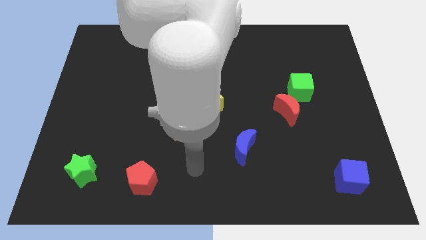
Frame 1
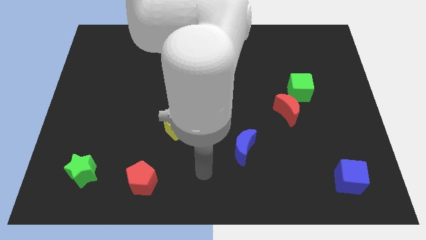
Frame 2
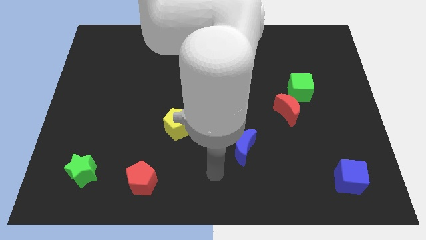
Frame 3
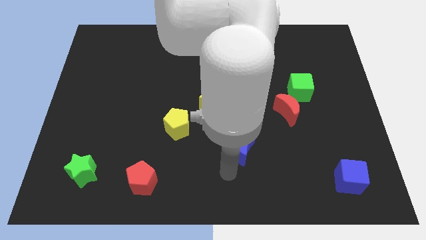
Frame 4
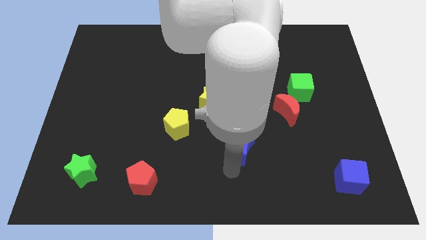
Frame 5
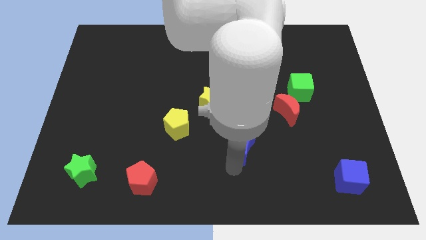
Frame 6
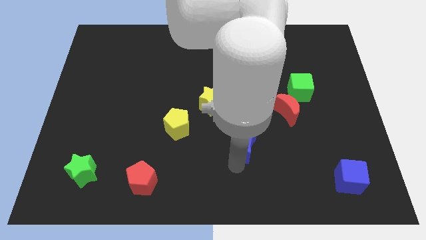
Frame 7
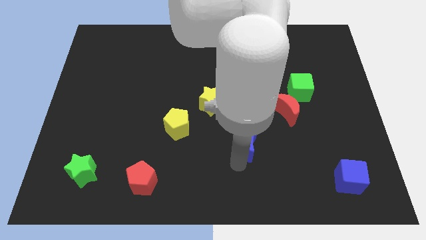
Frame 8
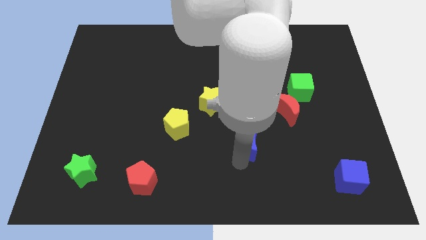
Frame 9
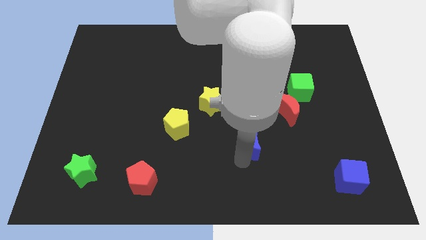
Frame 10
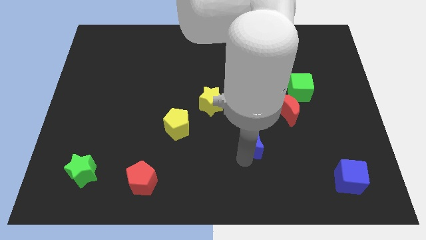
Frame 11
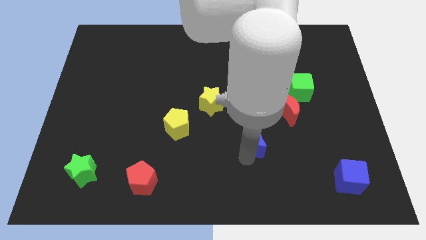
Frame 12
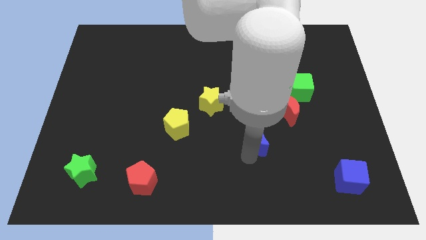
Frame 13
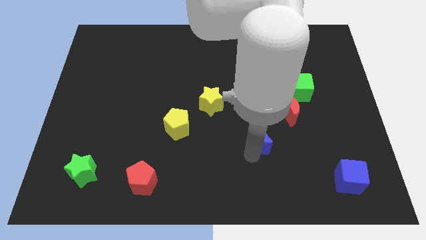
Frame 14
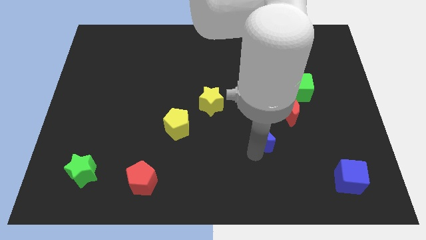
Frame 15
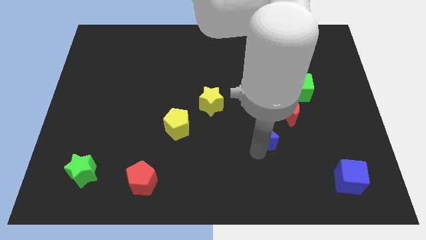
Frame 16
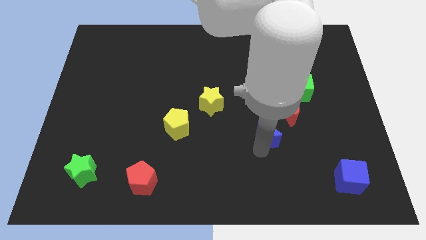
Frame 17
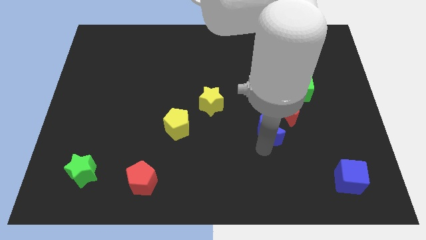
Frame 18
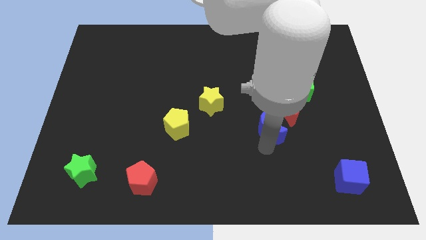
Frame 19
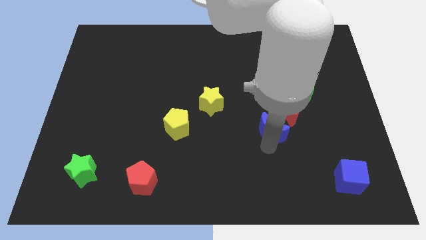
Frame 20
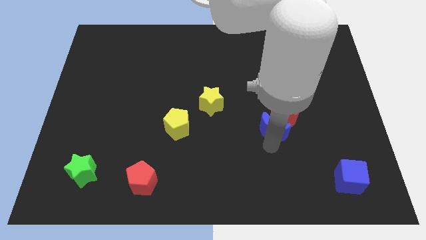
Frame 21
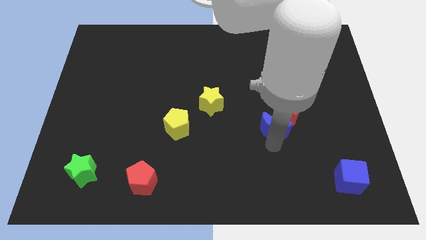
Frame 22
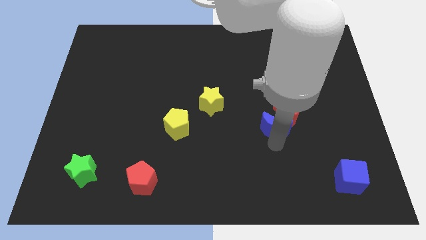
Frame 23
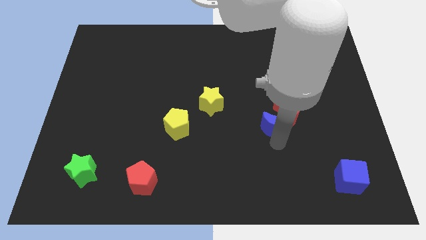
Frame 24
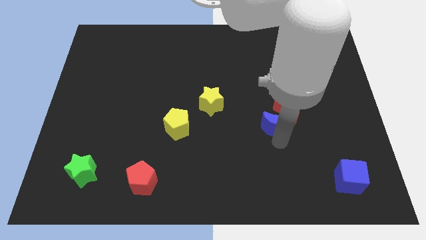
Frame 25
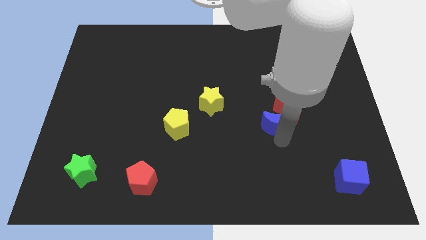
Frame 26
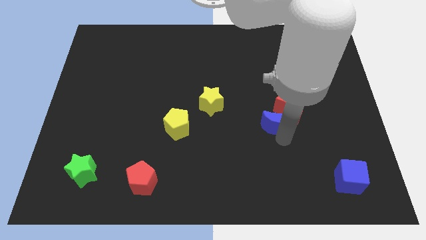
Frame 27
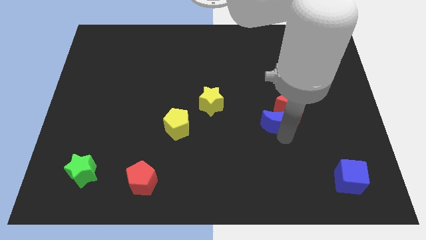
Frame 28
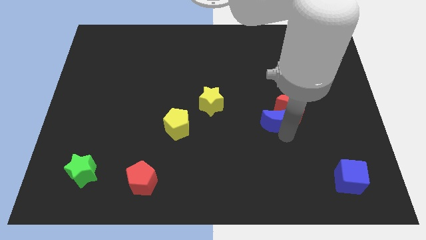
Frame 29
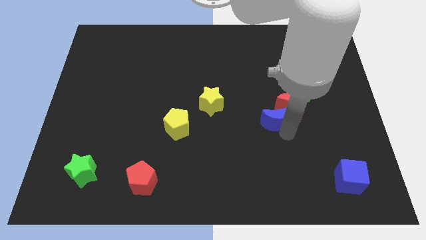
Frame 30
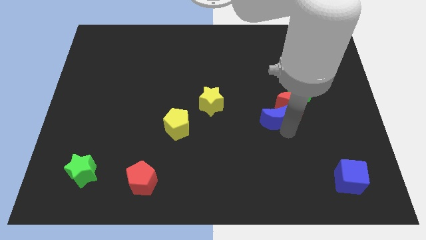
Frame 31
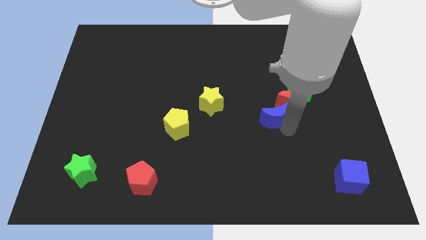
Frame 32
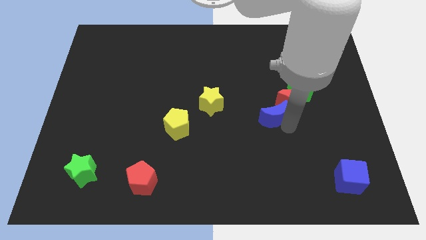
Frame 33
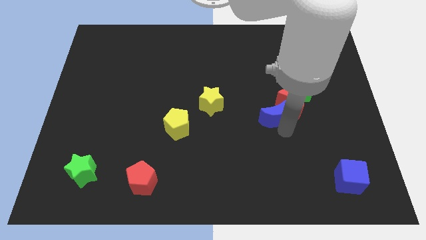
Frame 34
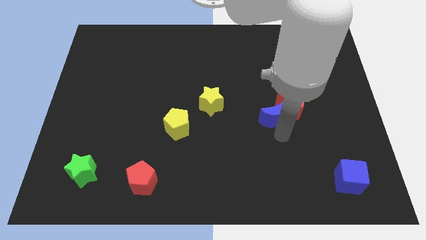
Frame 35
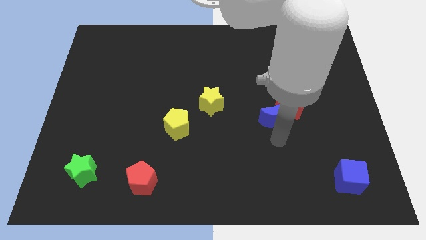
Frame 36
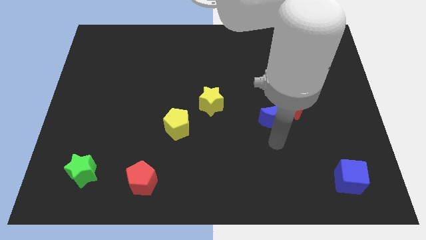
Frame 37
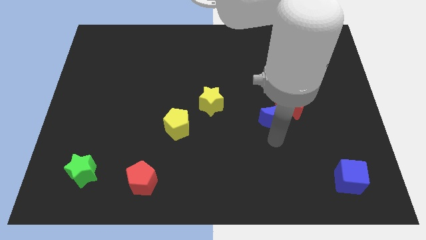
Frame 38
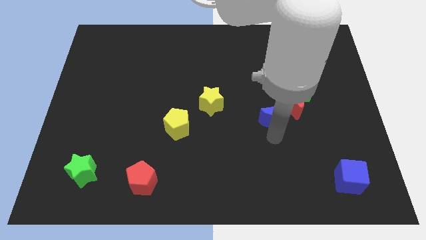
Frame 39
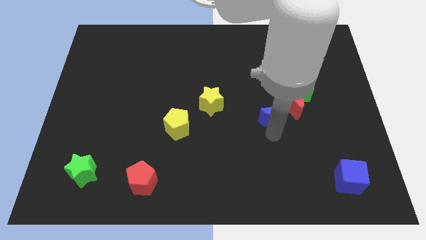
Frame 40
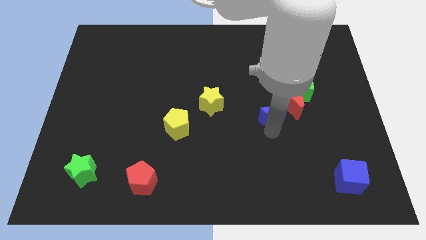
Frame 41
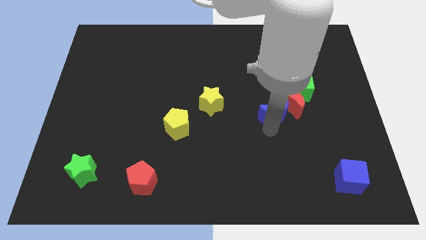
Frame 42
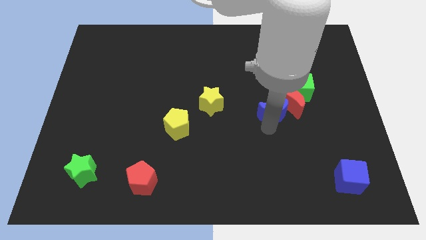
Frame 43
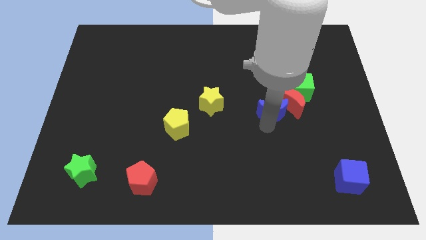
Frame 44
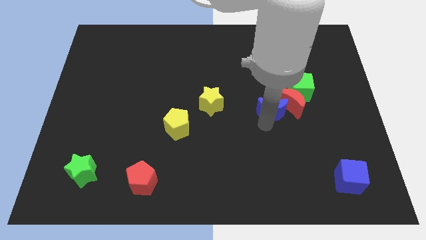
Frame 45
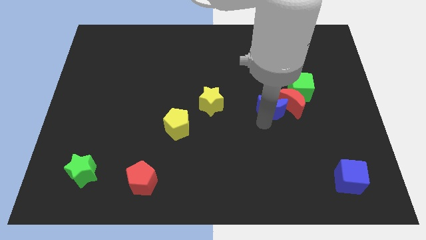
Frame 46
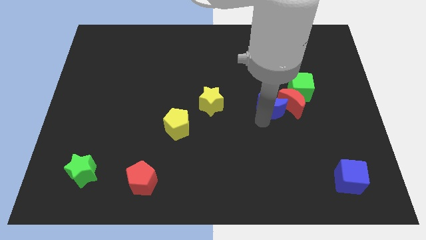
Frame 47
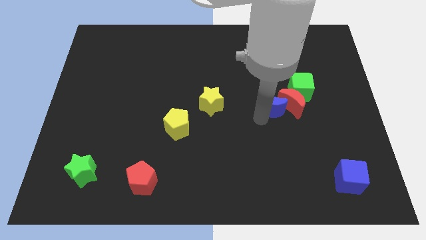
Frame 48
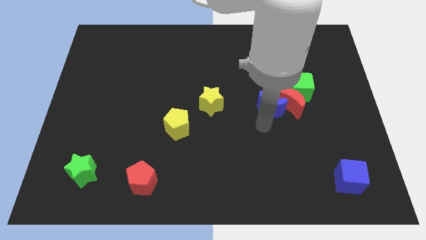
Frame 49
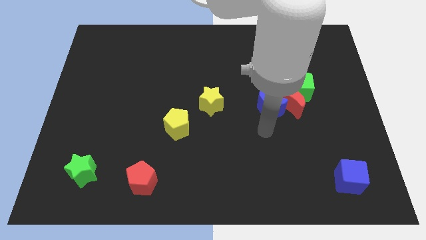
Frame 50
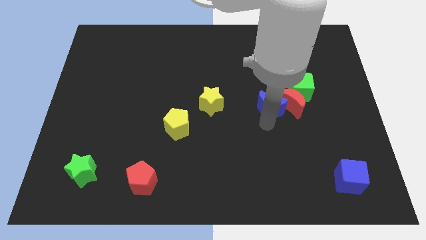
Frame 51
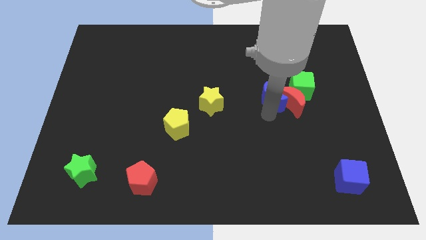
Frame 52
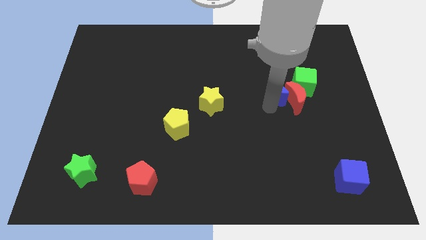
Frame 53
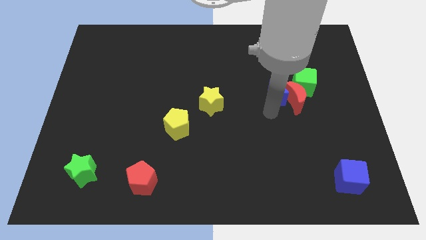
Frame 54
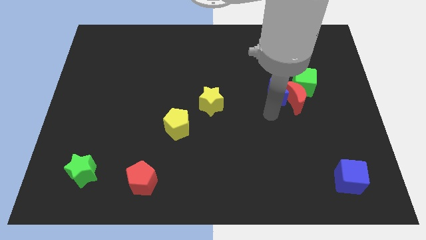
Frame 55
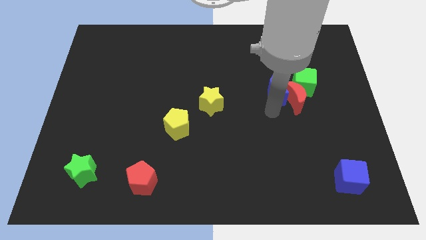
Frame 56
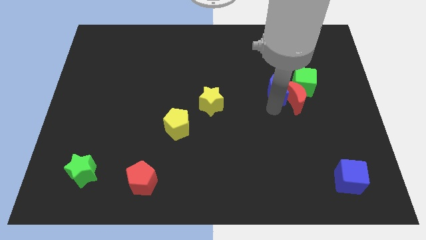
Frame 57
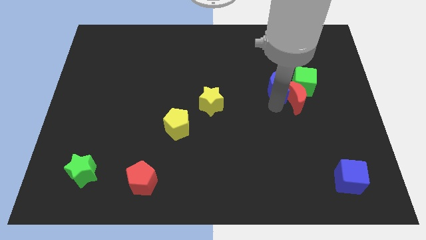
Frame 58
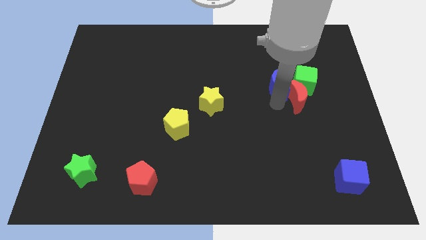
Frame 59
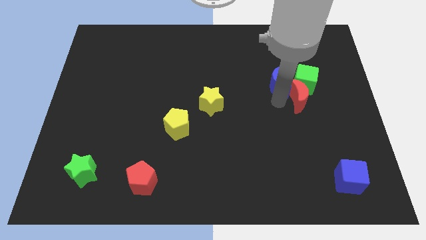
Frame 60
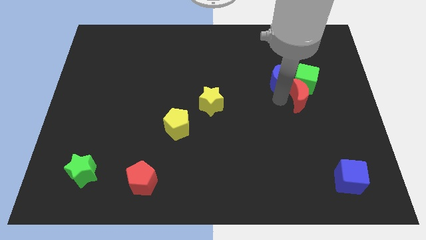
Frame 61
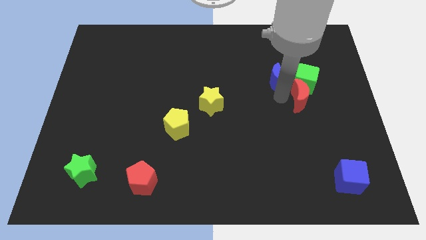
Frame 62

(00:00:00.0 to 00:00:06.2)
slide the blue moon to the top left of the green cube

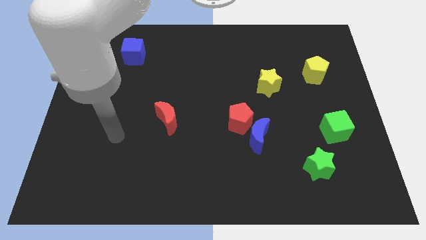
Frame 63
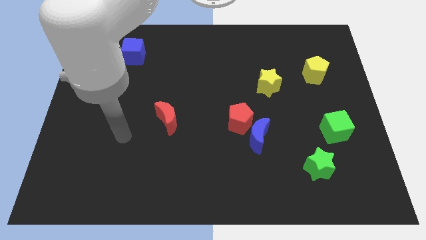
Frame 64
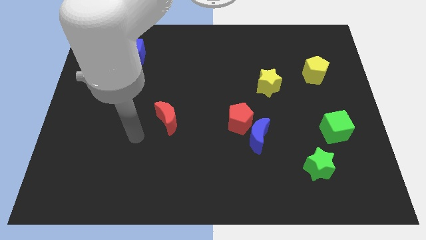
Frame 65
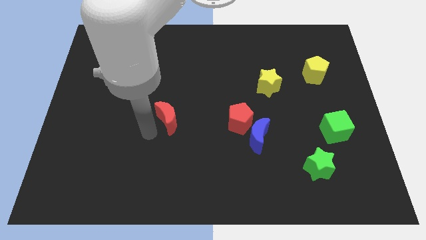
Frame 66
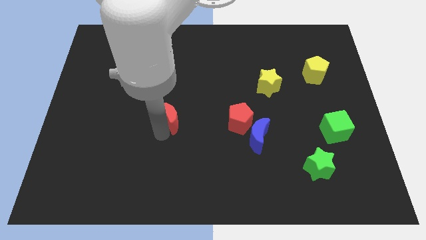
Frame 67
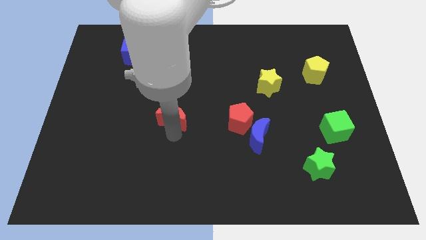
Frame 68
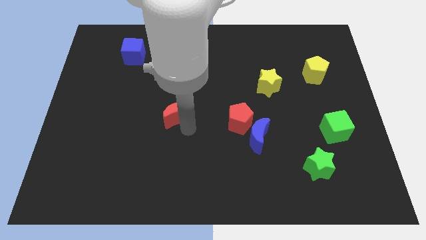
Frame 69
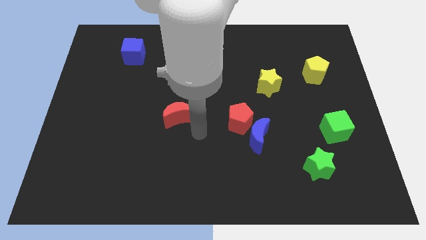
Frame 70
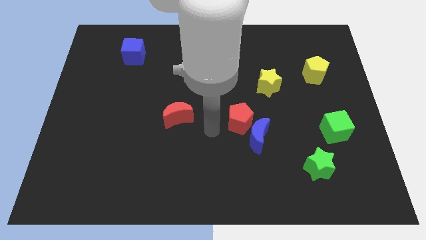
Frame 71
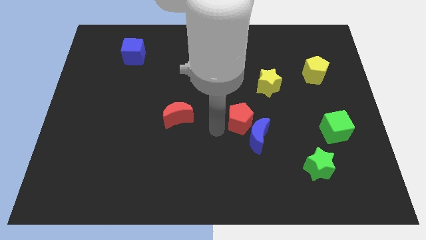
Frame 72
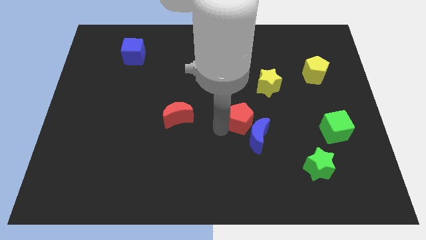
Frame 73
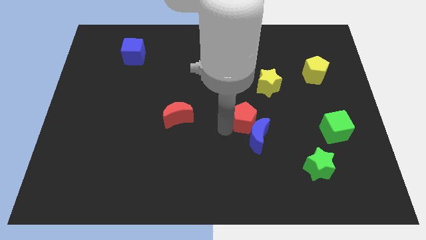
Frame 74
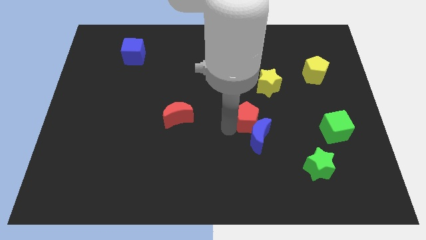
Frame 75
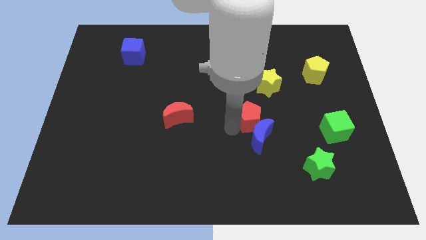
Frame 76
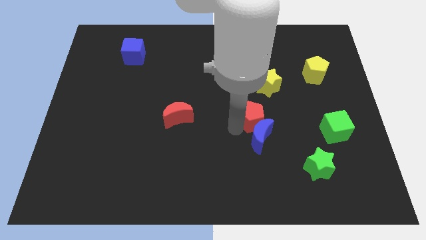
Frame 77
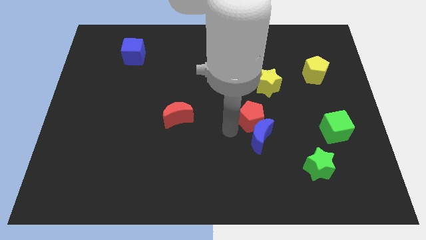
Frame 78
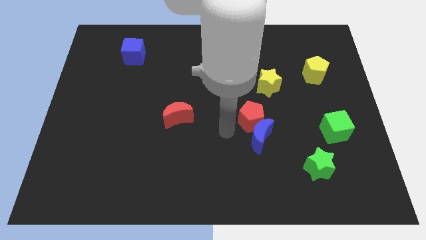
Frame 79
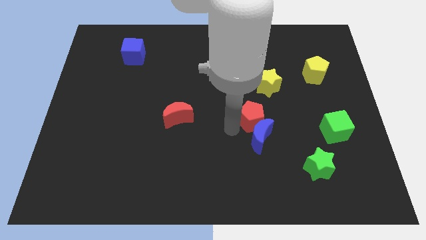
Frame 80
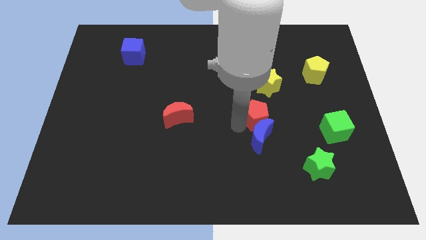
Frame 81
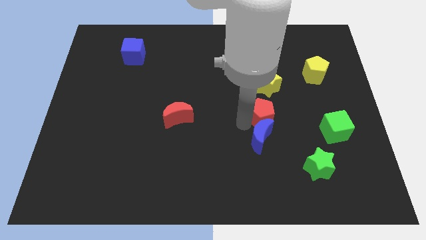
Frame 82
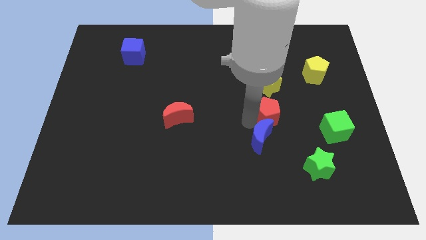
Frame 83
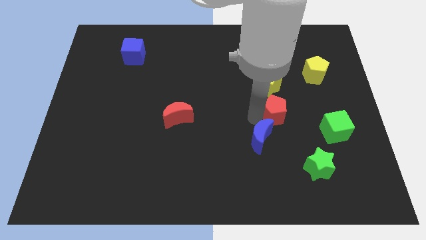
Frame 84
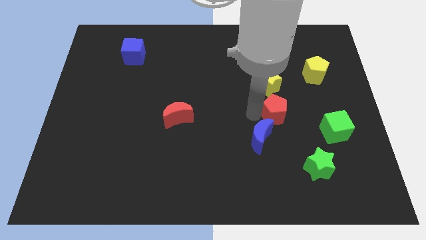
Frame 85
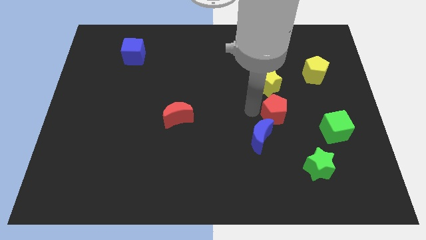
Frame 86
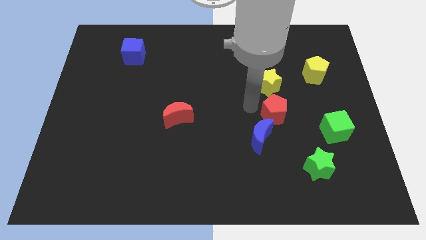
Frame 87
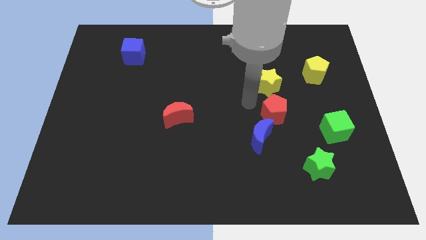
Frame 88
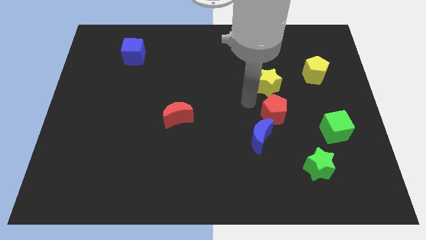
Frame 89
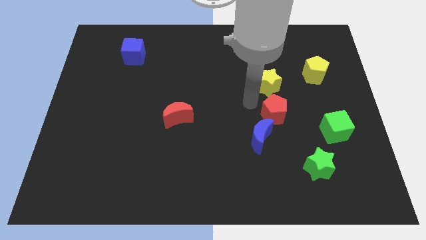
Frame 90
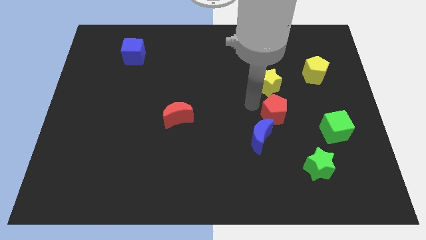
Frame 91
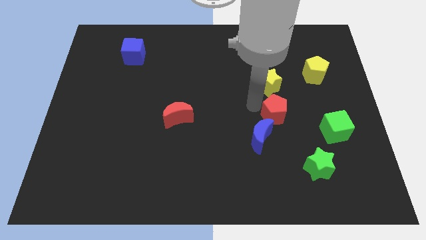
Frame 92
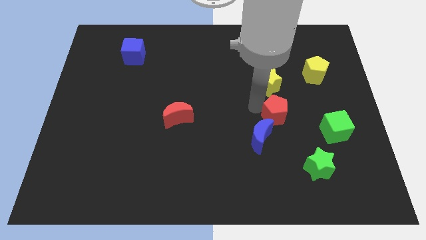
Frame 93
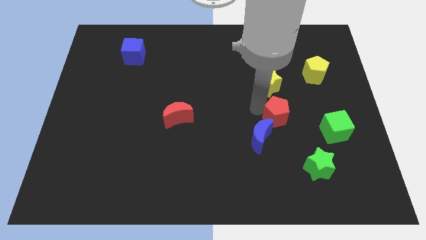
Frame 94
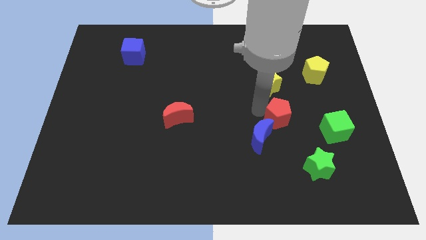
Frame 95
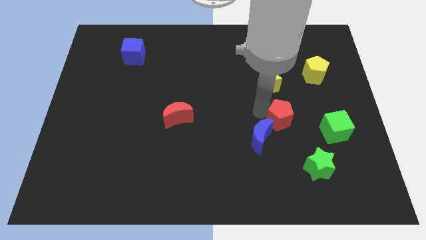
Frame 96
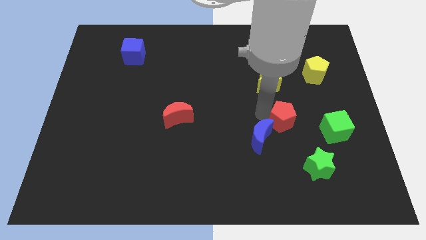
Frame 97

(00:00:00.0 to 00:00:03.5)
move the red pentagon right of the blue moon
